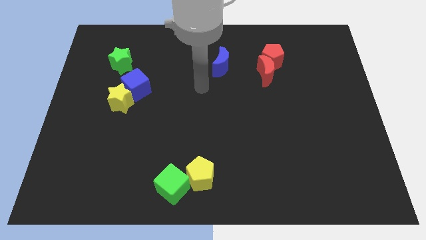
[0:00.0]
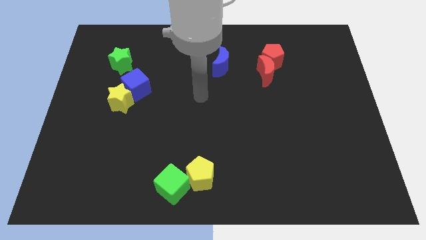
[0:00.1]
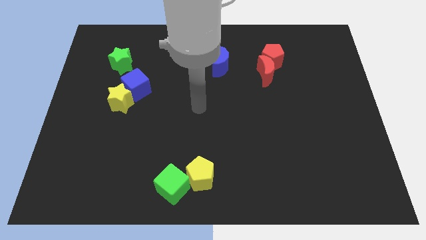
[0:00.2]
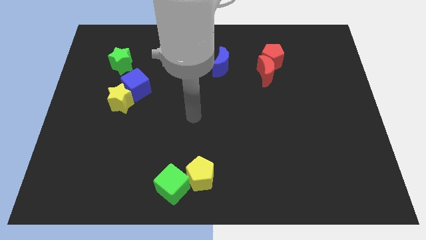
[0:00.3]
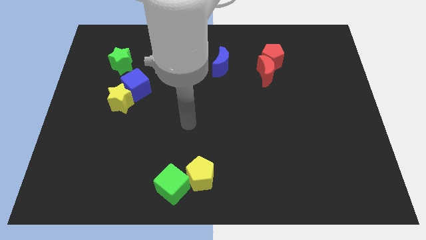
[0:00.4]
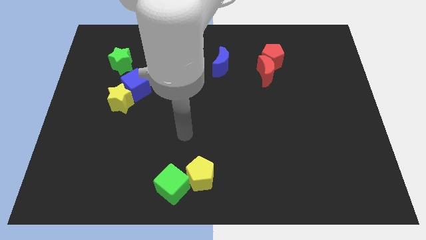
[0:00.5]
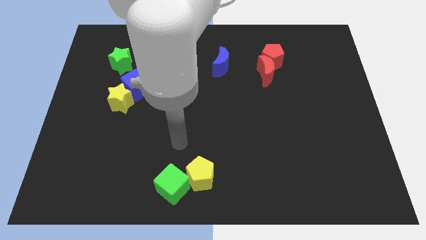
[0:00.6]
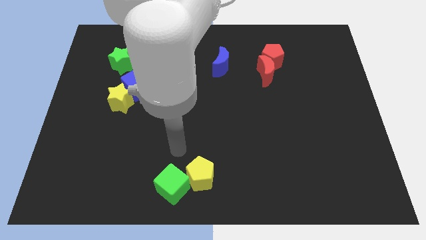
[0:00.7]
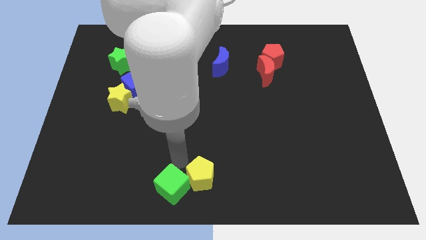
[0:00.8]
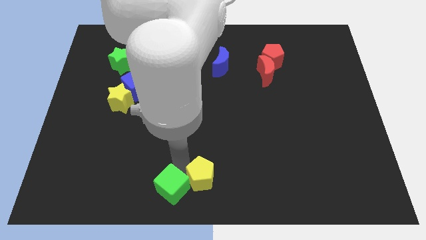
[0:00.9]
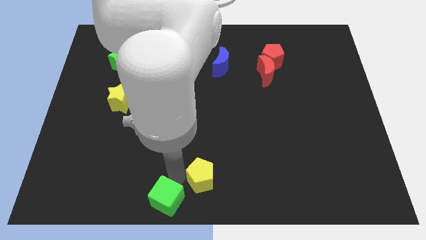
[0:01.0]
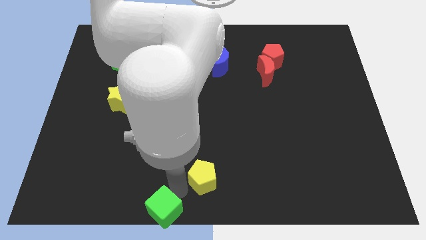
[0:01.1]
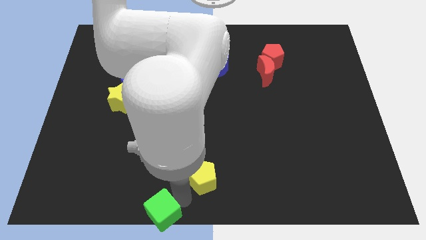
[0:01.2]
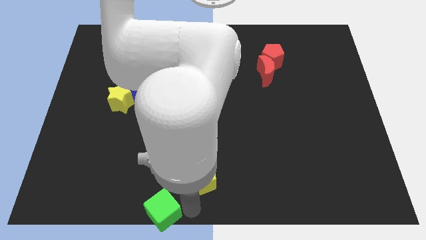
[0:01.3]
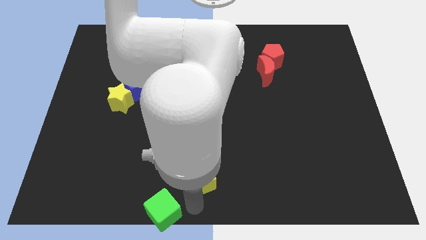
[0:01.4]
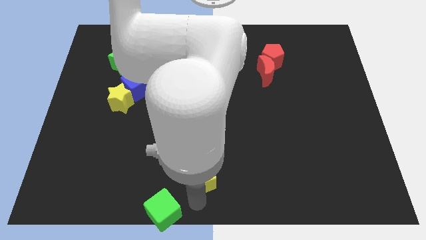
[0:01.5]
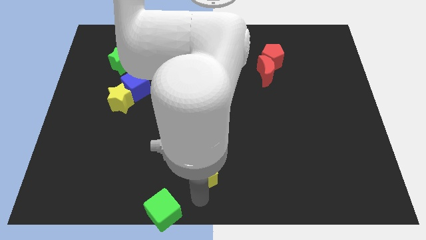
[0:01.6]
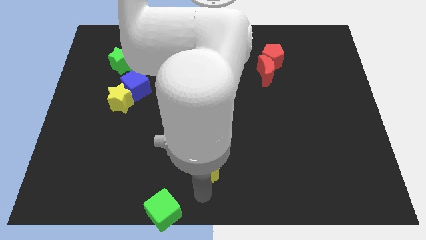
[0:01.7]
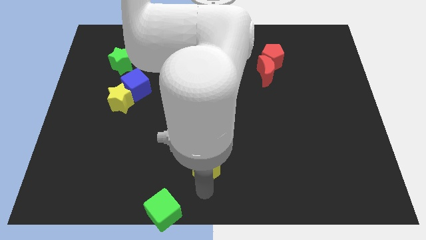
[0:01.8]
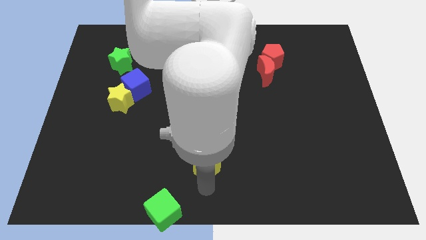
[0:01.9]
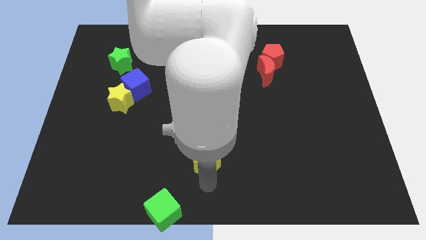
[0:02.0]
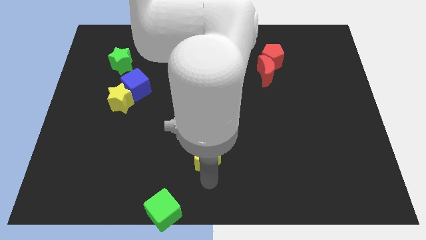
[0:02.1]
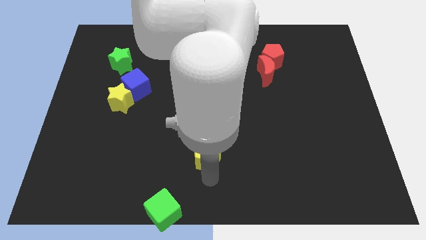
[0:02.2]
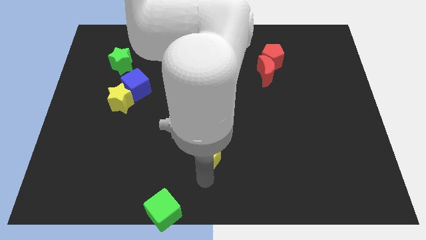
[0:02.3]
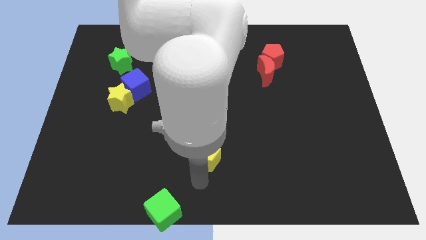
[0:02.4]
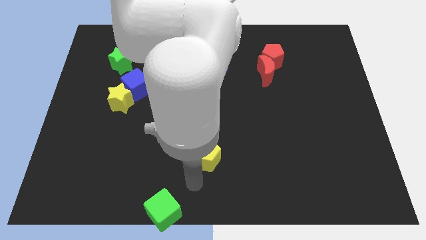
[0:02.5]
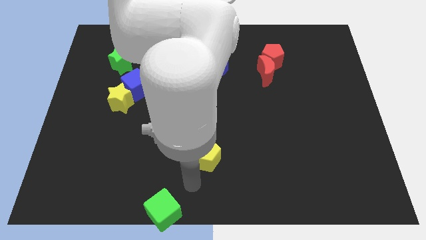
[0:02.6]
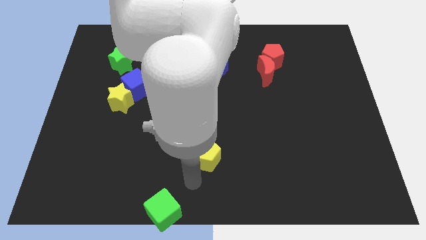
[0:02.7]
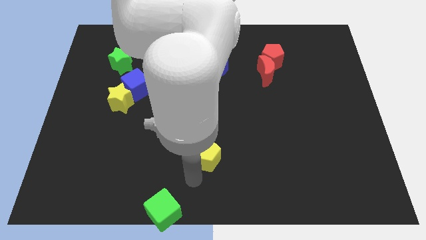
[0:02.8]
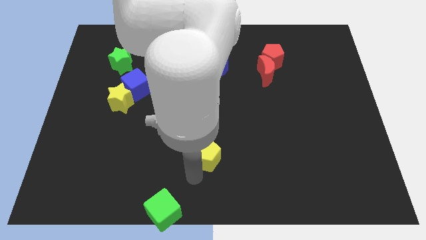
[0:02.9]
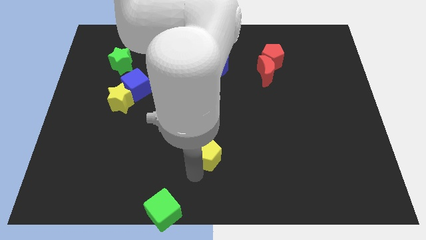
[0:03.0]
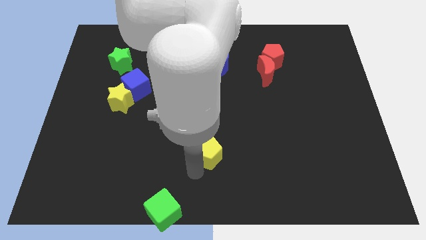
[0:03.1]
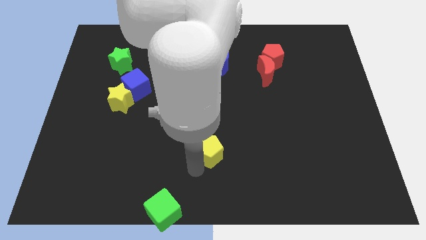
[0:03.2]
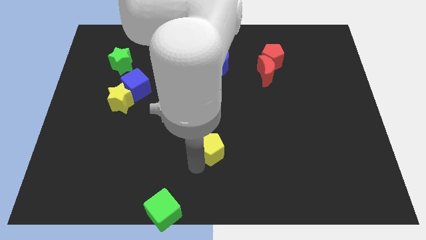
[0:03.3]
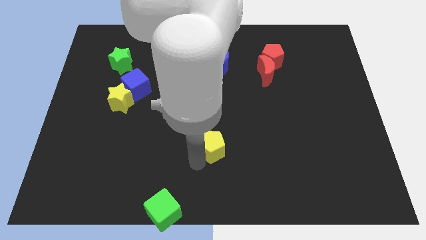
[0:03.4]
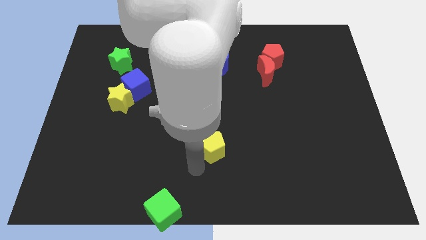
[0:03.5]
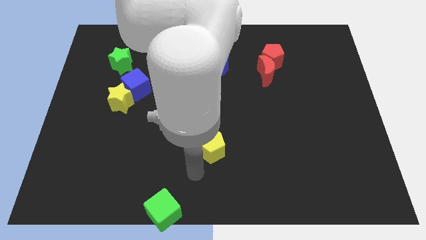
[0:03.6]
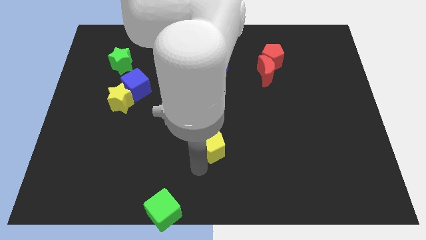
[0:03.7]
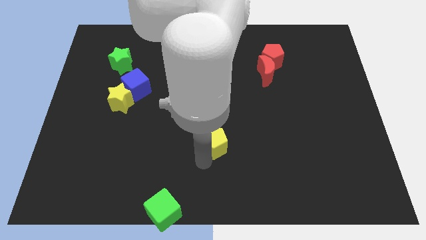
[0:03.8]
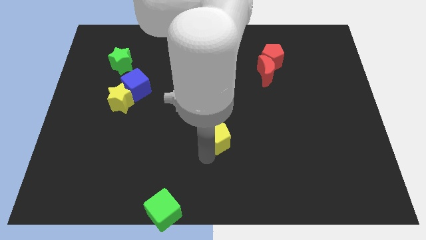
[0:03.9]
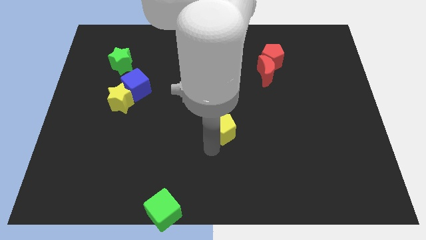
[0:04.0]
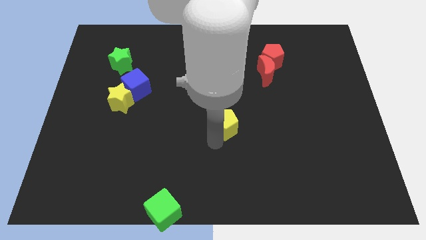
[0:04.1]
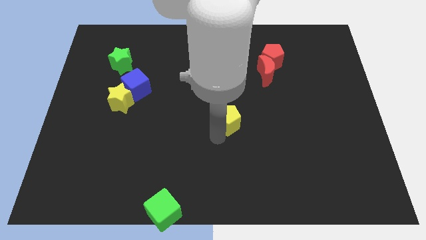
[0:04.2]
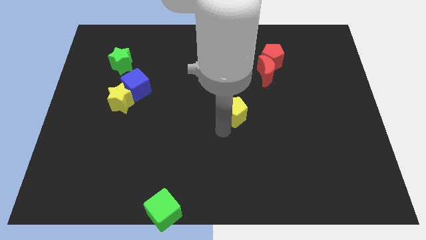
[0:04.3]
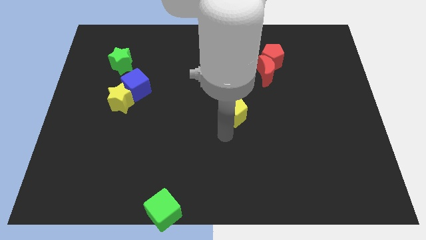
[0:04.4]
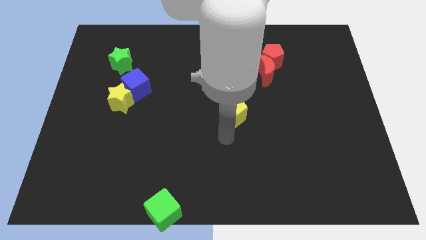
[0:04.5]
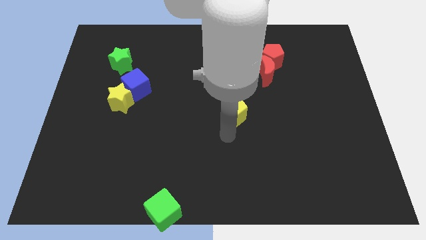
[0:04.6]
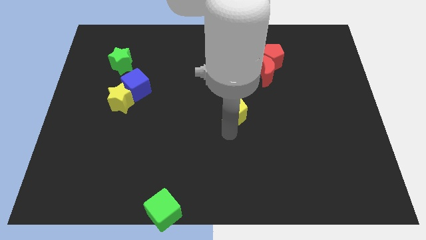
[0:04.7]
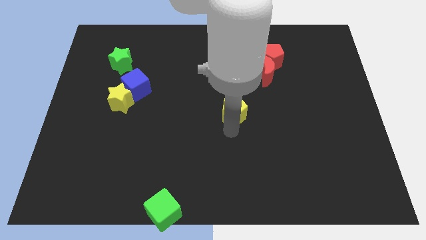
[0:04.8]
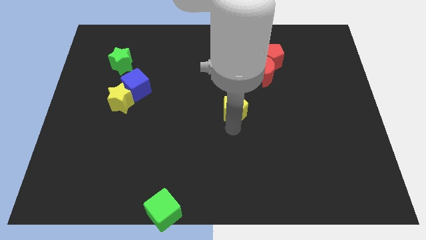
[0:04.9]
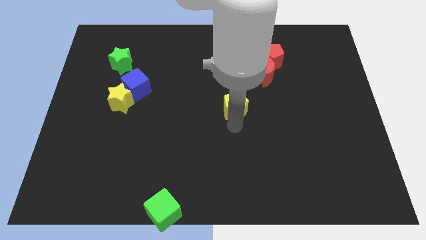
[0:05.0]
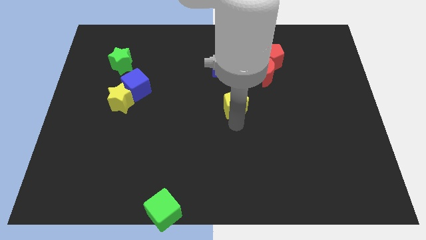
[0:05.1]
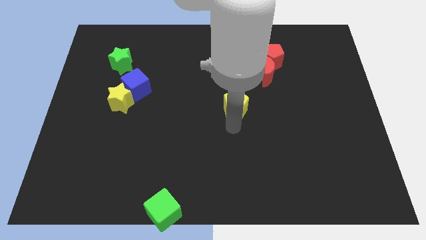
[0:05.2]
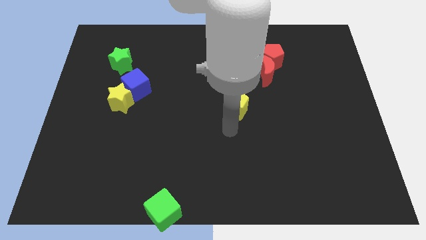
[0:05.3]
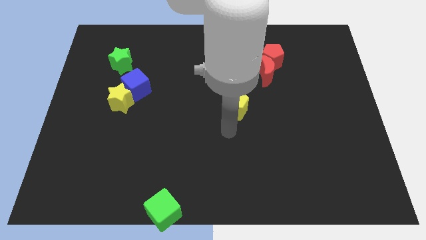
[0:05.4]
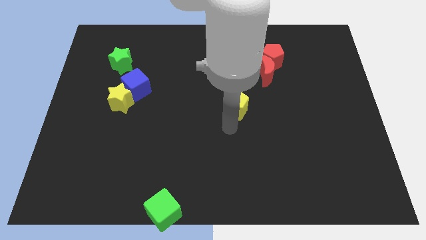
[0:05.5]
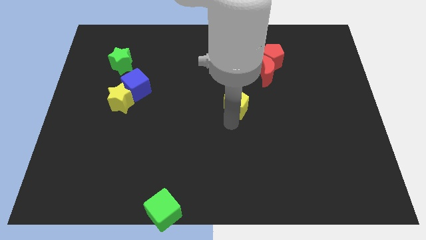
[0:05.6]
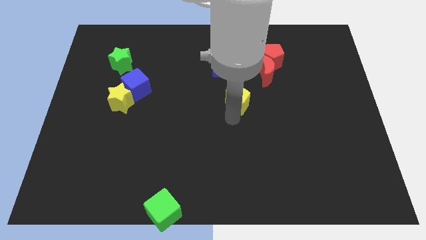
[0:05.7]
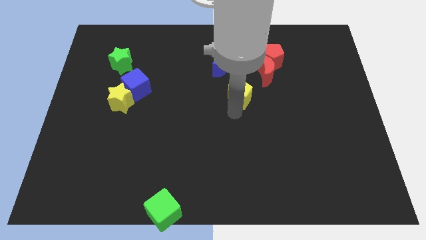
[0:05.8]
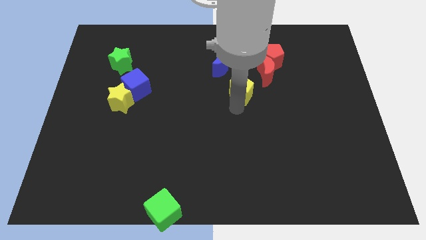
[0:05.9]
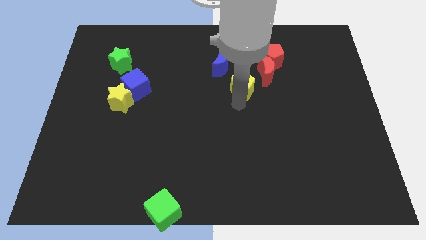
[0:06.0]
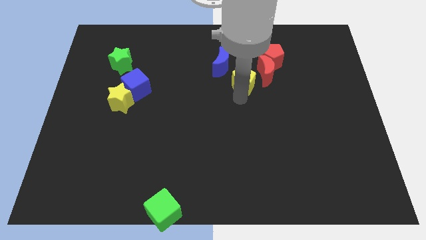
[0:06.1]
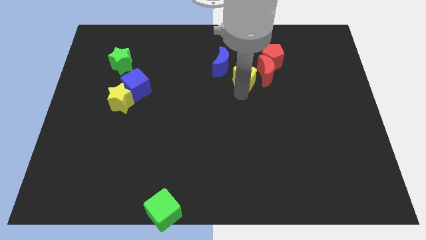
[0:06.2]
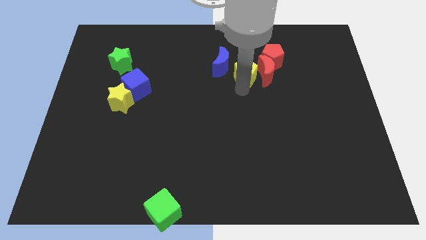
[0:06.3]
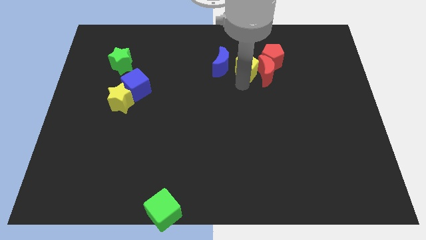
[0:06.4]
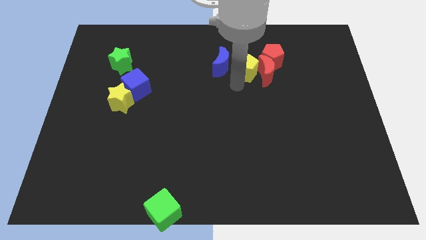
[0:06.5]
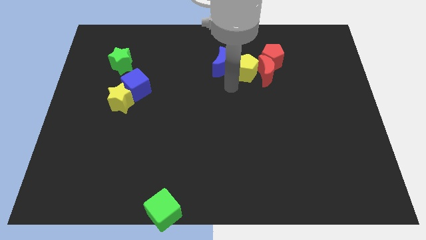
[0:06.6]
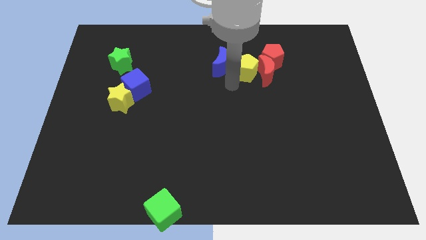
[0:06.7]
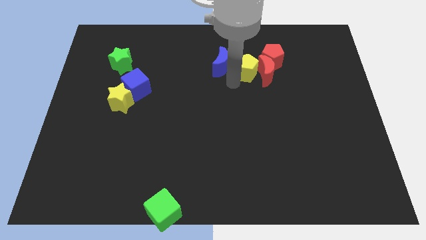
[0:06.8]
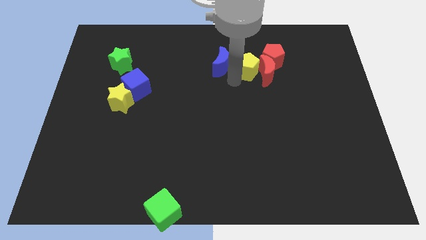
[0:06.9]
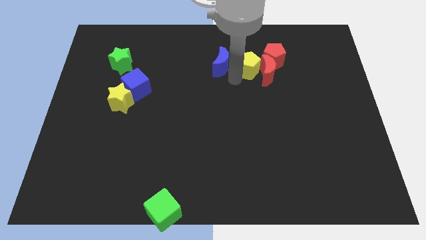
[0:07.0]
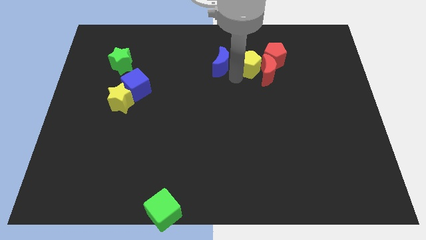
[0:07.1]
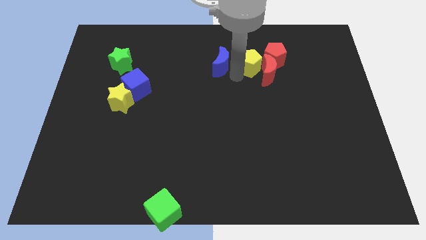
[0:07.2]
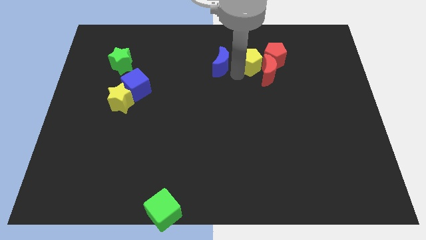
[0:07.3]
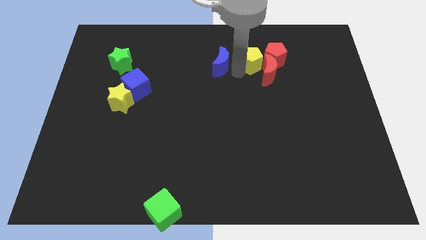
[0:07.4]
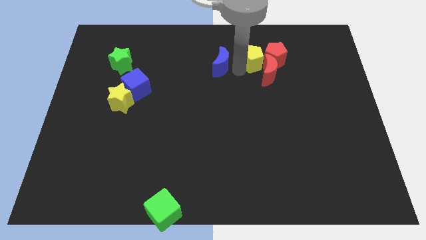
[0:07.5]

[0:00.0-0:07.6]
move the yellow pentagon to the red pentagon
